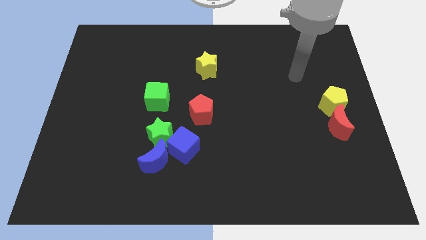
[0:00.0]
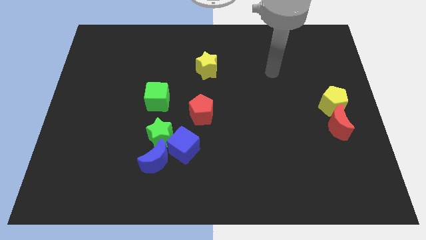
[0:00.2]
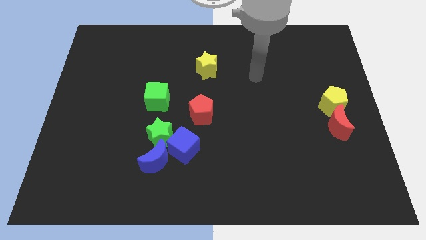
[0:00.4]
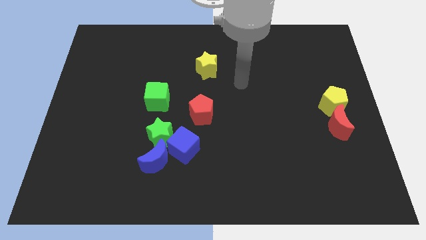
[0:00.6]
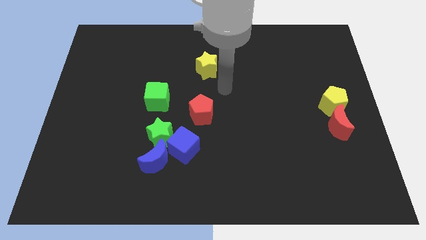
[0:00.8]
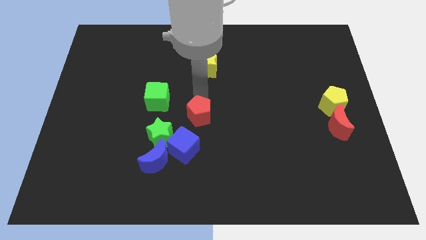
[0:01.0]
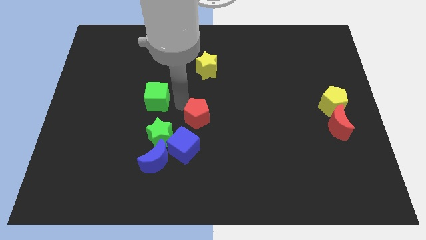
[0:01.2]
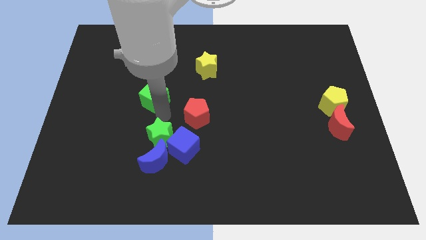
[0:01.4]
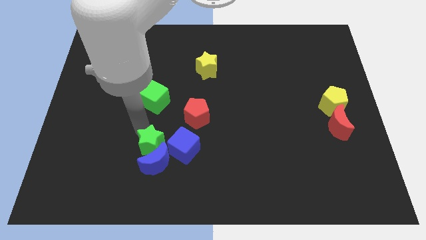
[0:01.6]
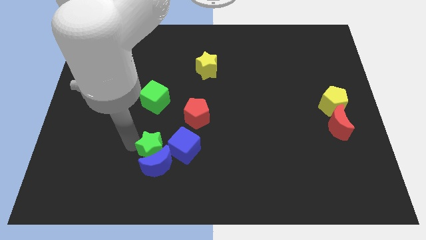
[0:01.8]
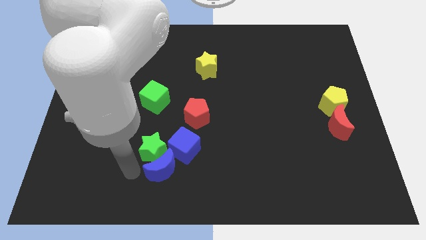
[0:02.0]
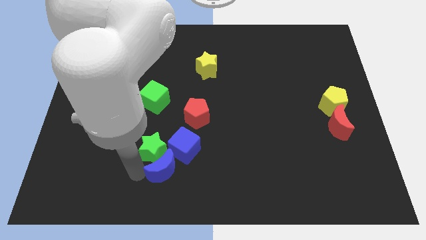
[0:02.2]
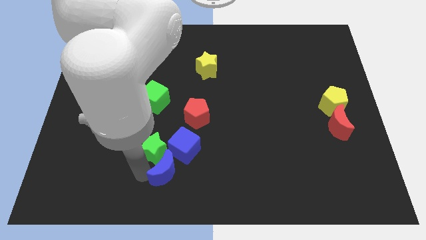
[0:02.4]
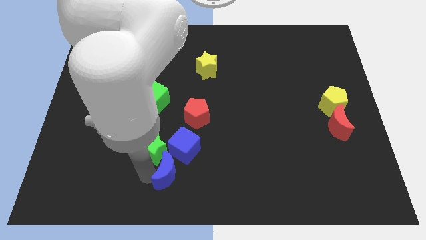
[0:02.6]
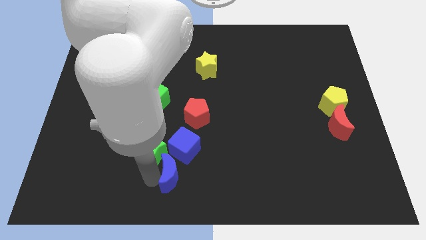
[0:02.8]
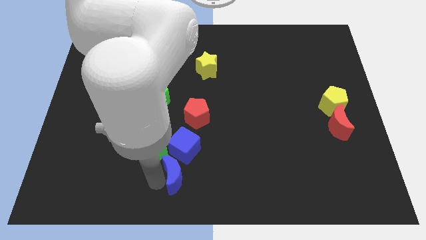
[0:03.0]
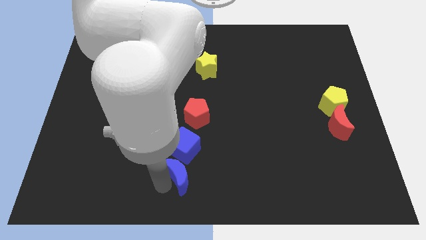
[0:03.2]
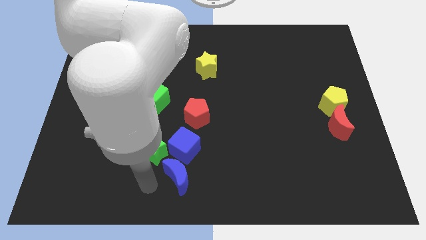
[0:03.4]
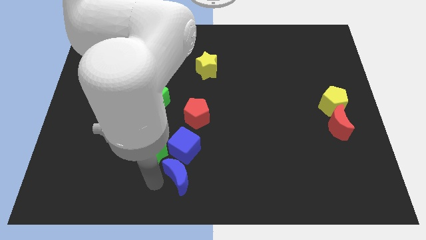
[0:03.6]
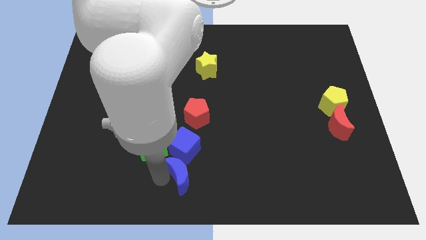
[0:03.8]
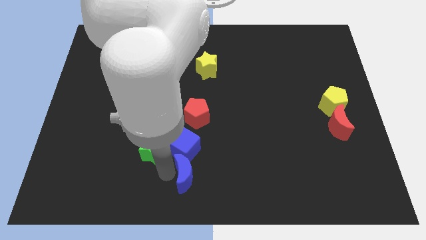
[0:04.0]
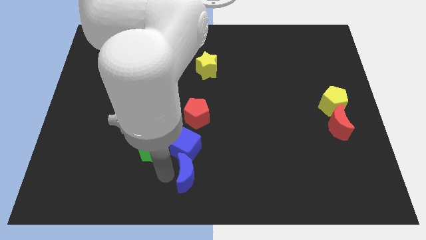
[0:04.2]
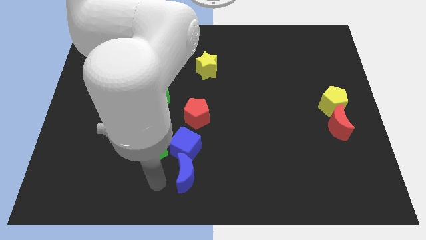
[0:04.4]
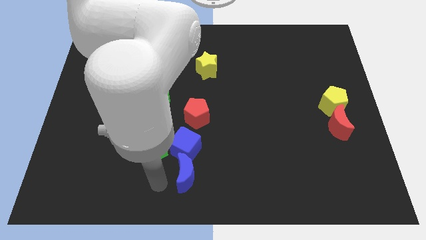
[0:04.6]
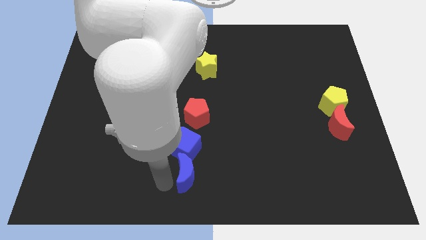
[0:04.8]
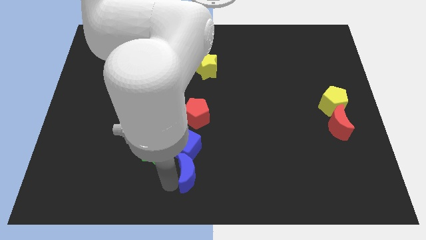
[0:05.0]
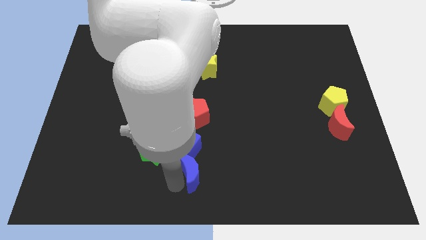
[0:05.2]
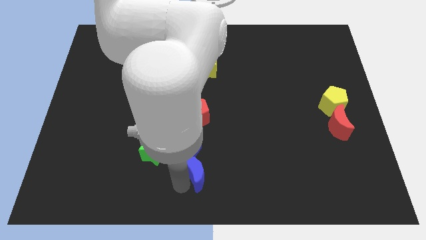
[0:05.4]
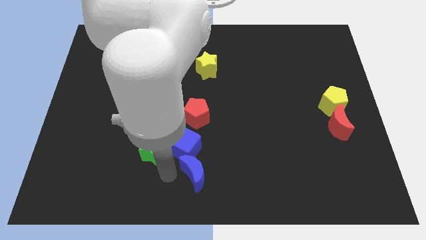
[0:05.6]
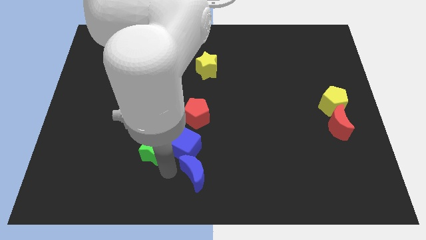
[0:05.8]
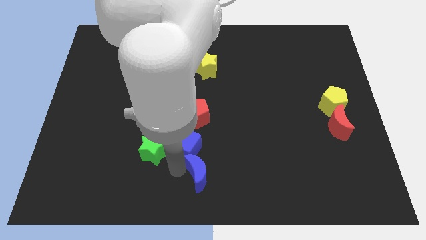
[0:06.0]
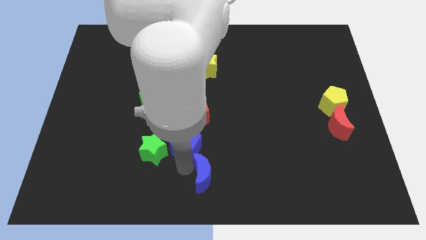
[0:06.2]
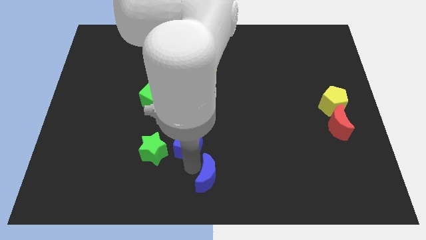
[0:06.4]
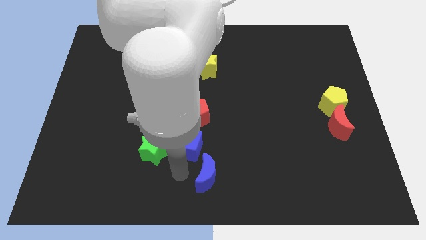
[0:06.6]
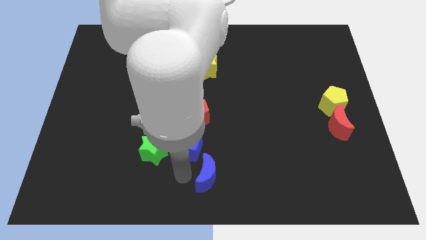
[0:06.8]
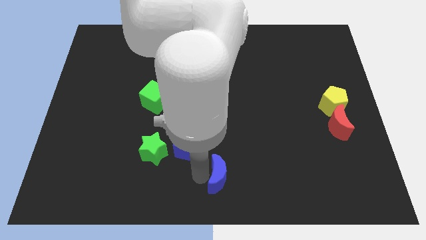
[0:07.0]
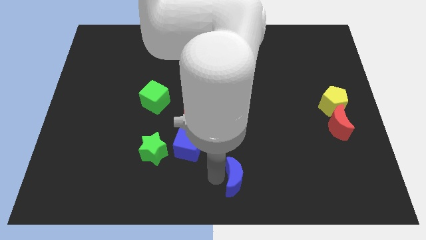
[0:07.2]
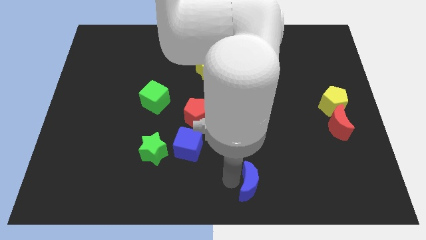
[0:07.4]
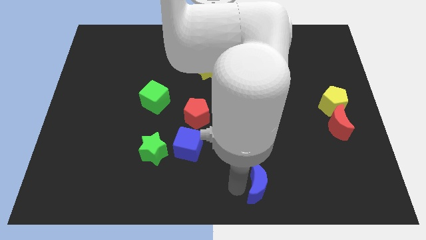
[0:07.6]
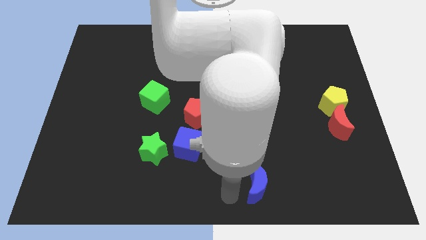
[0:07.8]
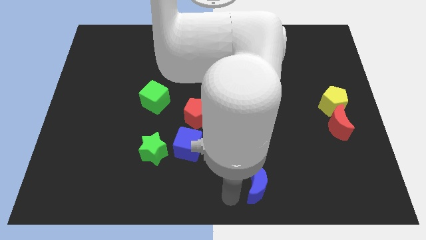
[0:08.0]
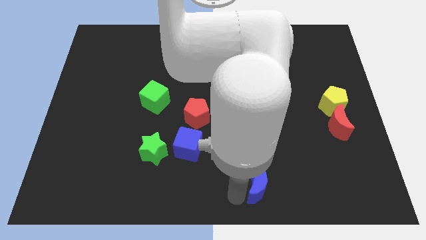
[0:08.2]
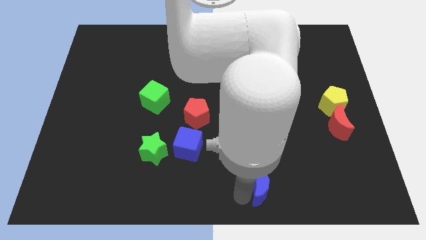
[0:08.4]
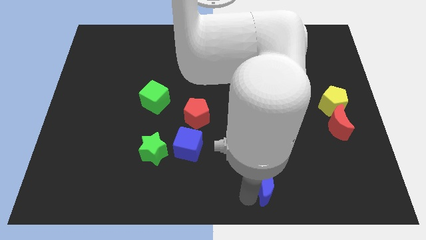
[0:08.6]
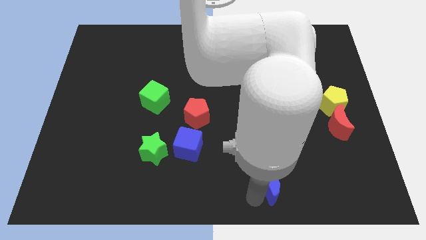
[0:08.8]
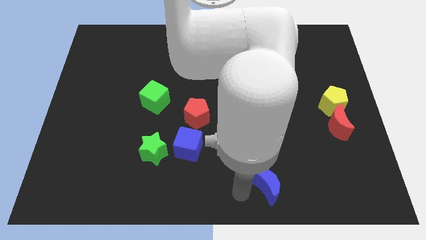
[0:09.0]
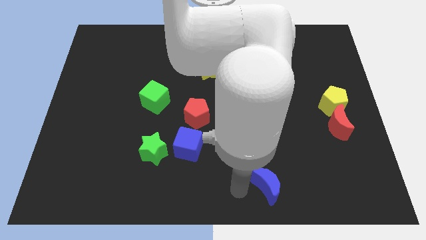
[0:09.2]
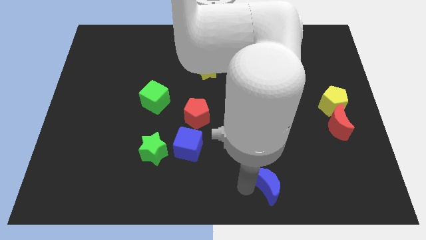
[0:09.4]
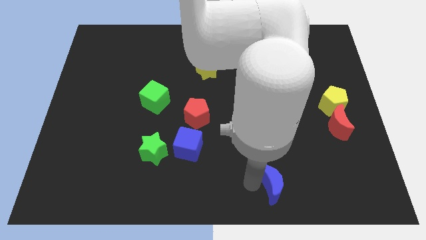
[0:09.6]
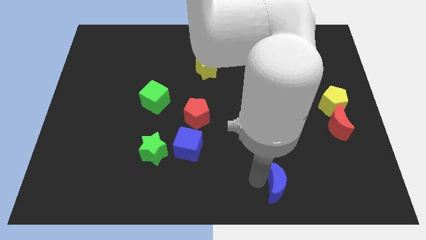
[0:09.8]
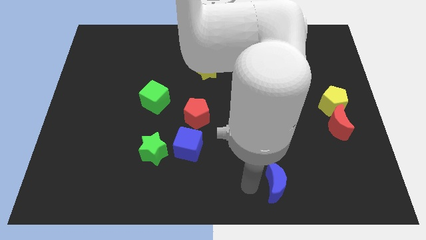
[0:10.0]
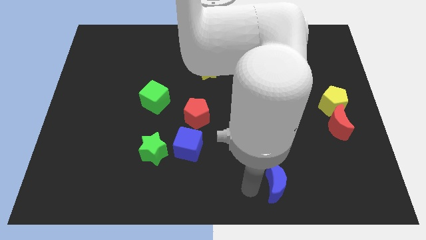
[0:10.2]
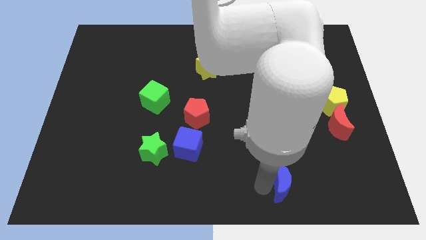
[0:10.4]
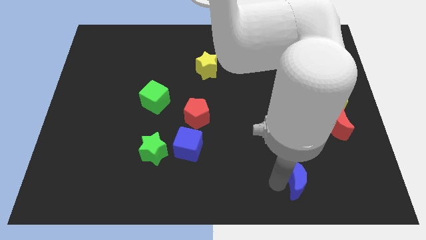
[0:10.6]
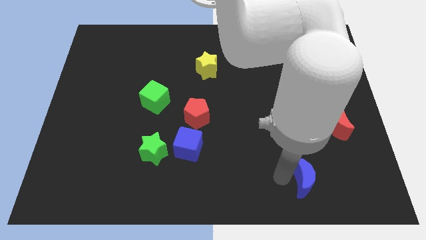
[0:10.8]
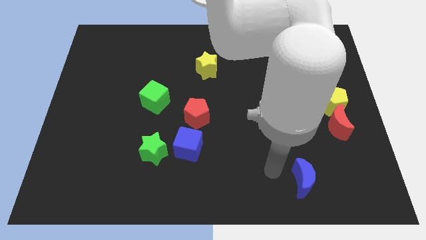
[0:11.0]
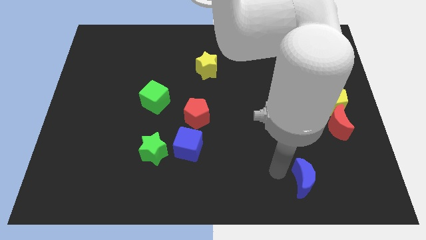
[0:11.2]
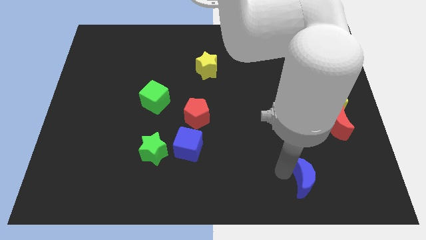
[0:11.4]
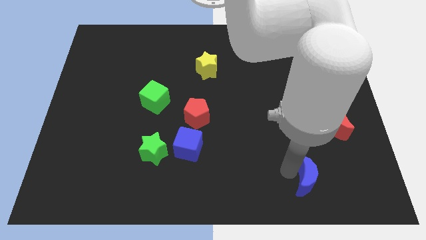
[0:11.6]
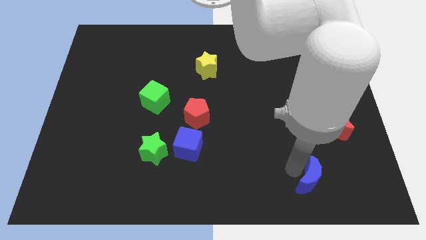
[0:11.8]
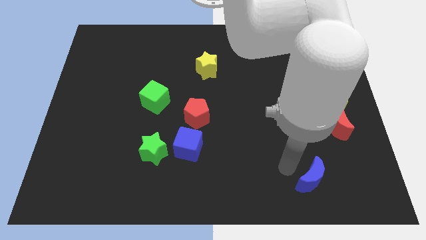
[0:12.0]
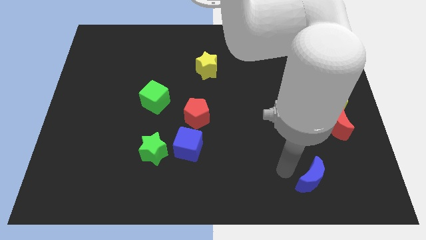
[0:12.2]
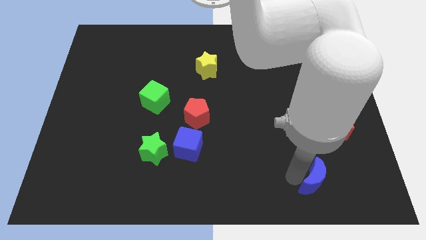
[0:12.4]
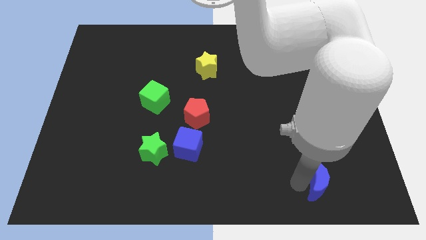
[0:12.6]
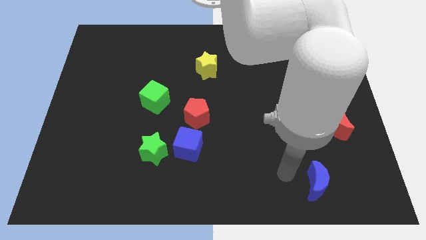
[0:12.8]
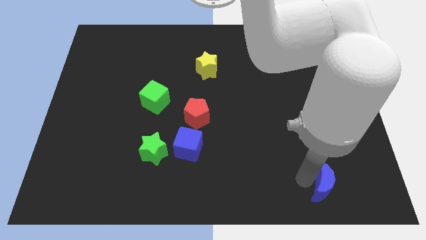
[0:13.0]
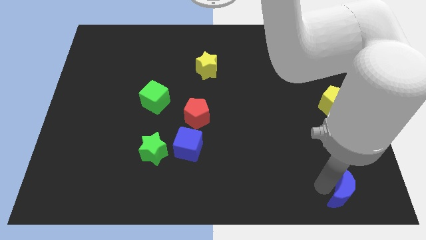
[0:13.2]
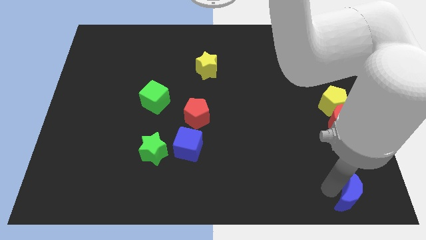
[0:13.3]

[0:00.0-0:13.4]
push the blue moon to the bottom right of the board

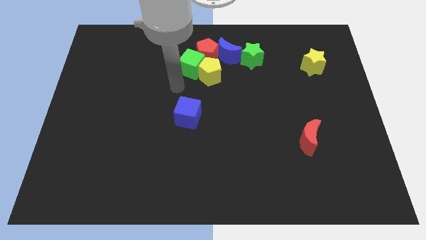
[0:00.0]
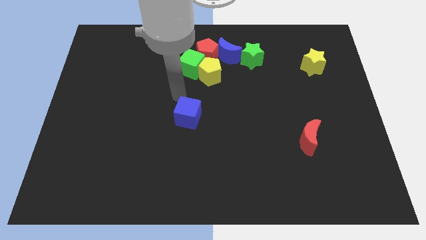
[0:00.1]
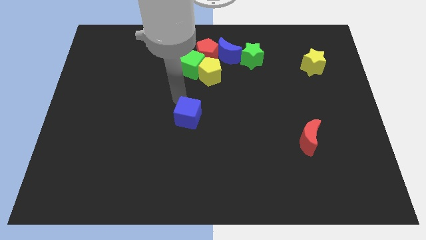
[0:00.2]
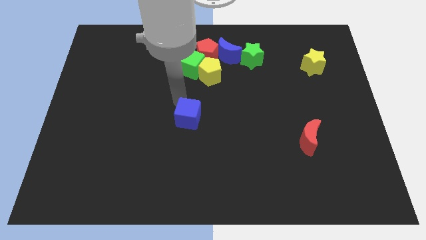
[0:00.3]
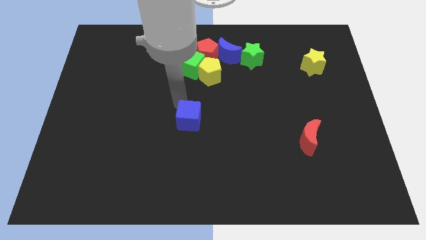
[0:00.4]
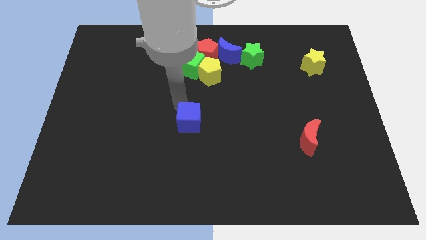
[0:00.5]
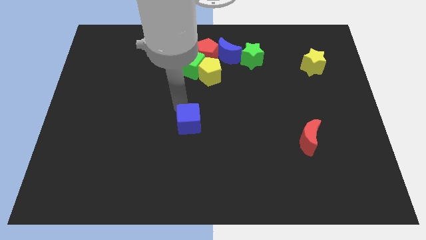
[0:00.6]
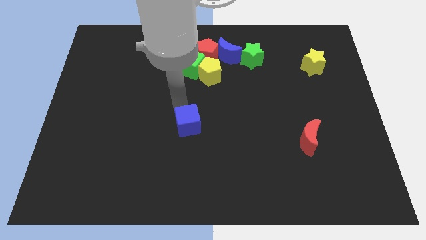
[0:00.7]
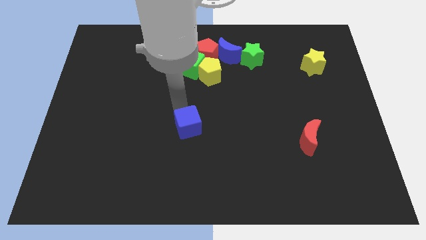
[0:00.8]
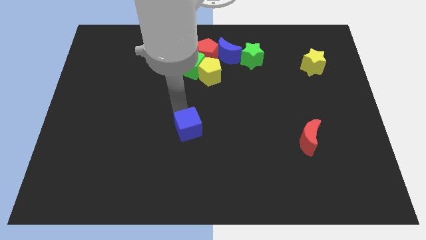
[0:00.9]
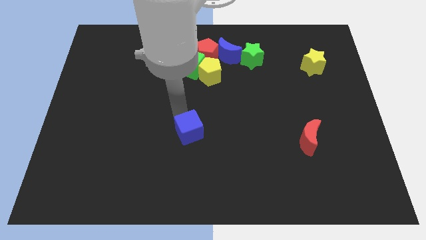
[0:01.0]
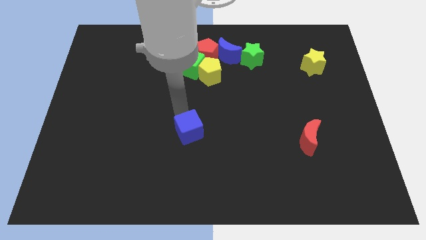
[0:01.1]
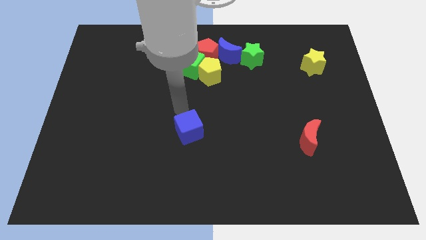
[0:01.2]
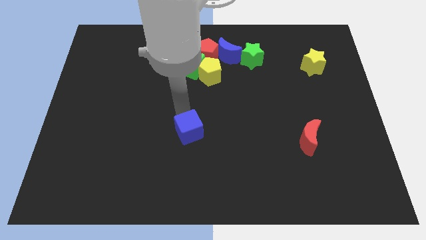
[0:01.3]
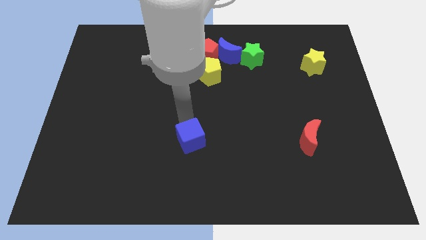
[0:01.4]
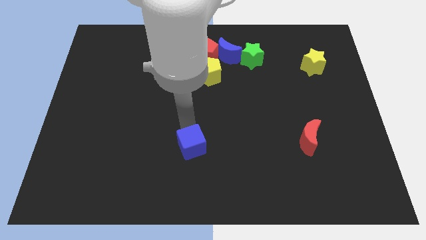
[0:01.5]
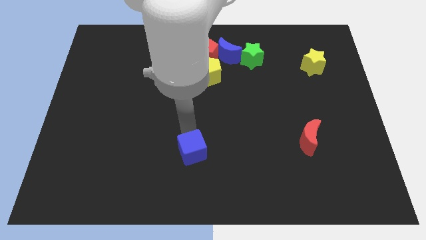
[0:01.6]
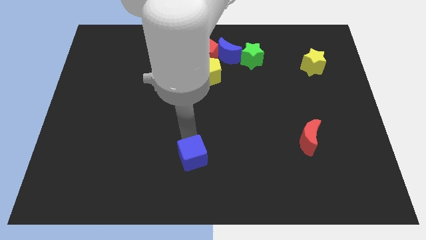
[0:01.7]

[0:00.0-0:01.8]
put the blue cube to the bottom
